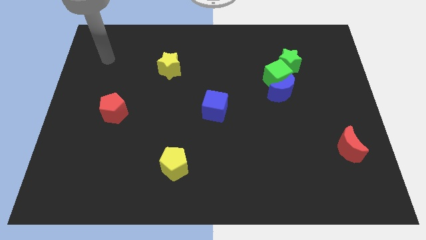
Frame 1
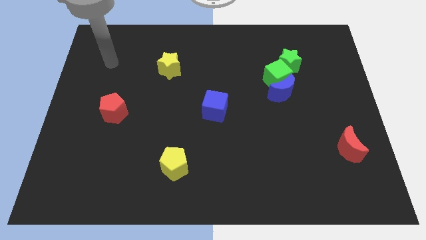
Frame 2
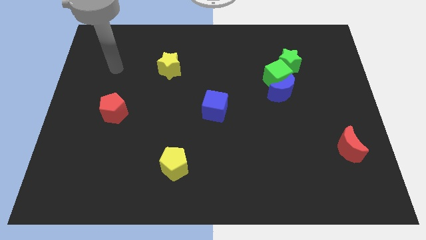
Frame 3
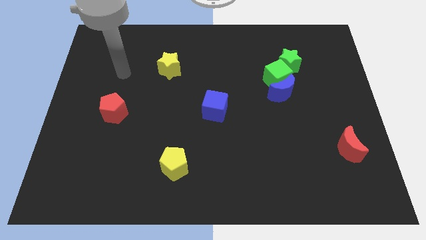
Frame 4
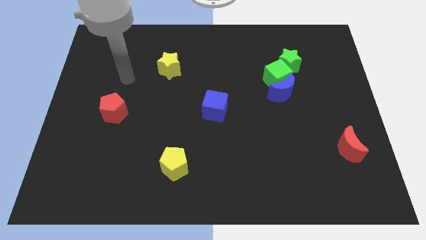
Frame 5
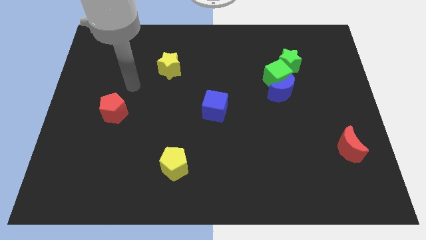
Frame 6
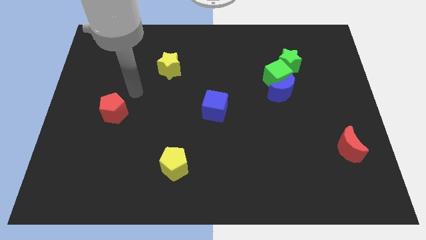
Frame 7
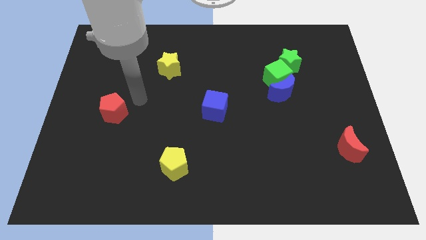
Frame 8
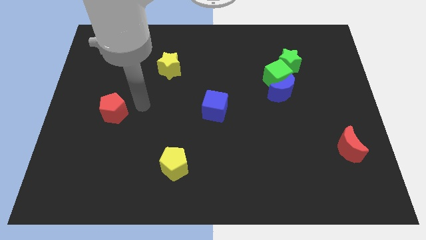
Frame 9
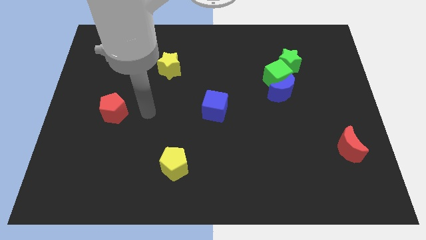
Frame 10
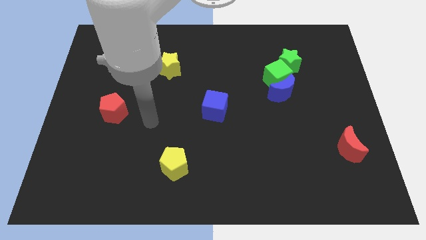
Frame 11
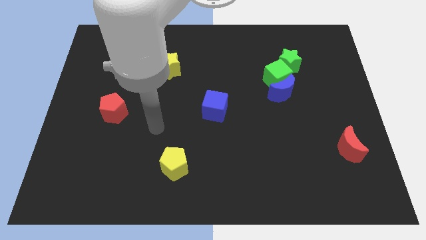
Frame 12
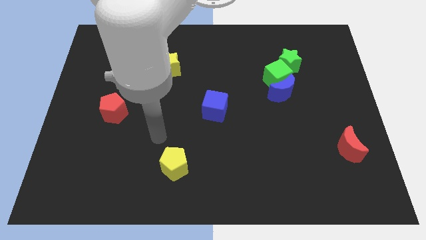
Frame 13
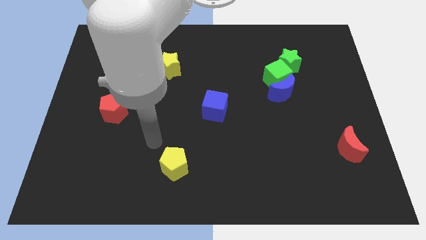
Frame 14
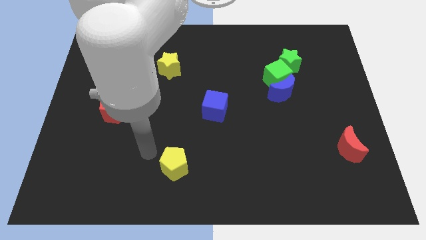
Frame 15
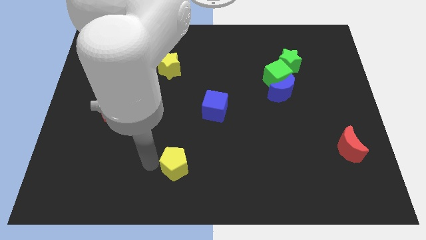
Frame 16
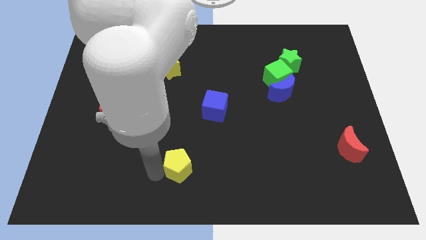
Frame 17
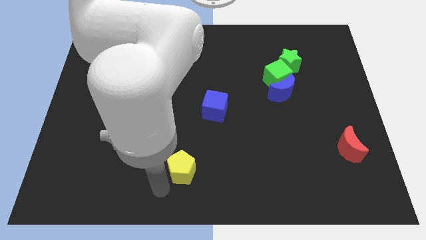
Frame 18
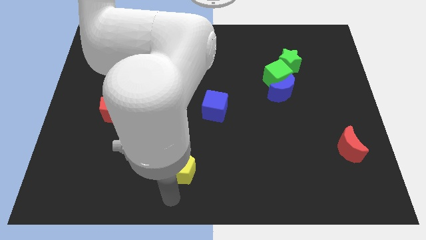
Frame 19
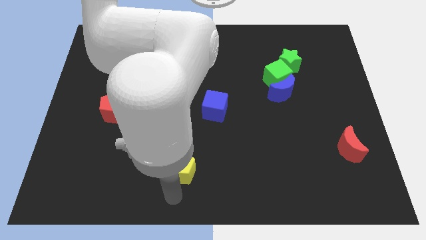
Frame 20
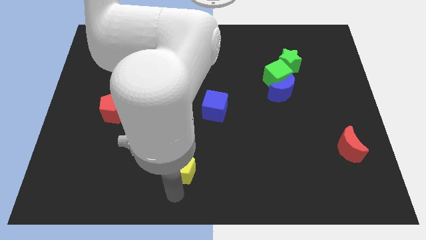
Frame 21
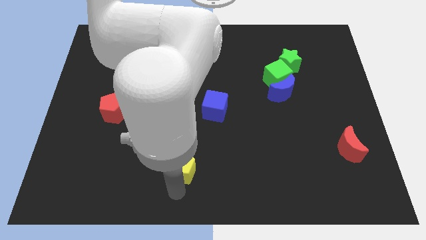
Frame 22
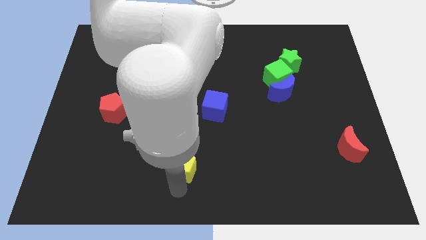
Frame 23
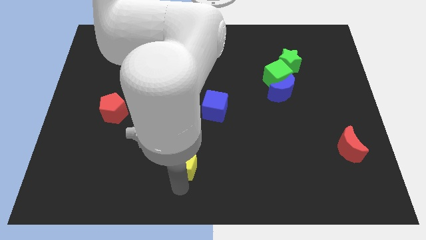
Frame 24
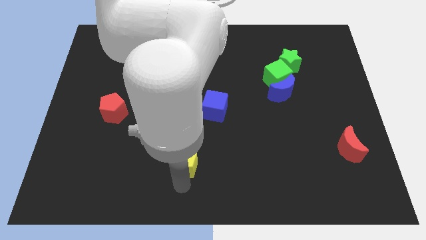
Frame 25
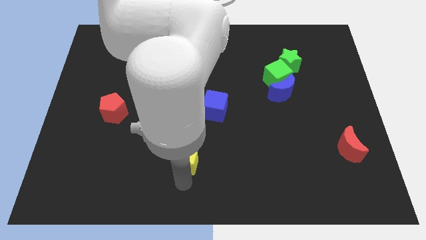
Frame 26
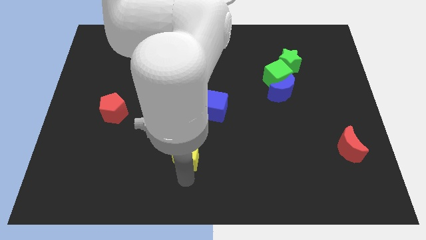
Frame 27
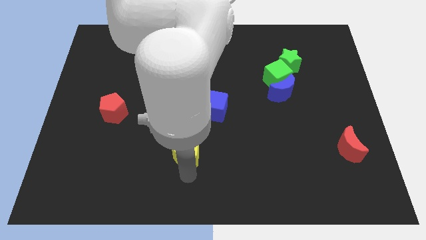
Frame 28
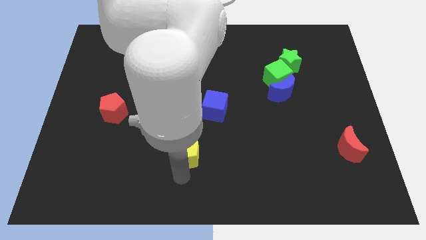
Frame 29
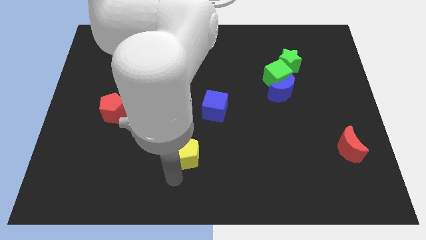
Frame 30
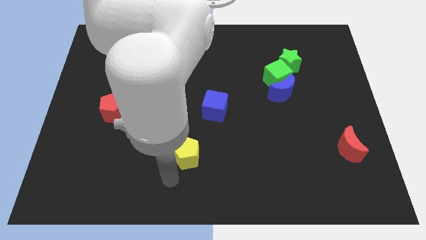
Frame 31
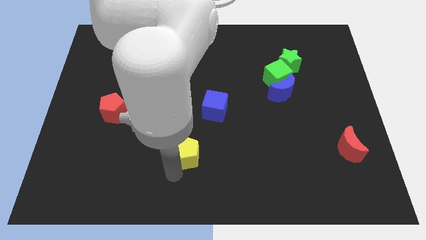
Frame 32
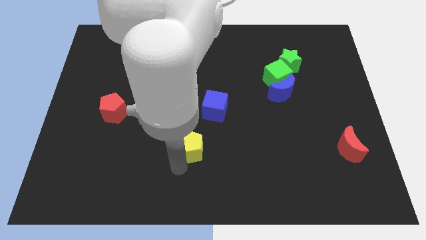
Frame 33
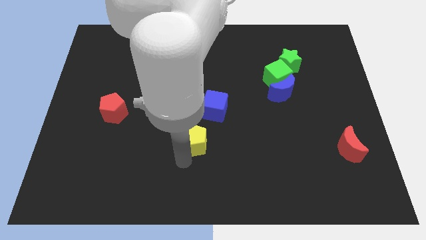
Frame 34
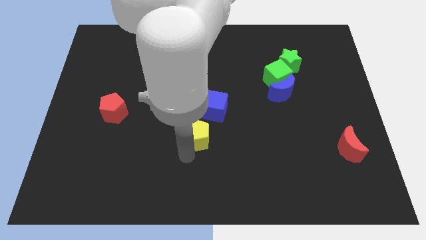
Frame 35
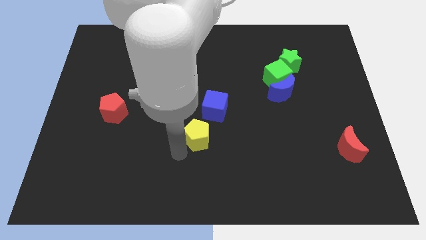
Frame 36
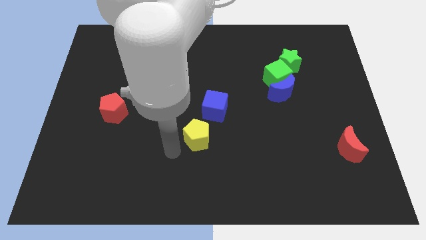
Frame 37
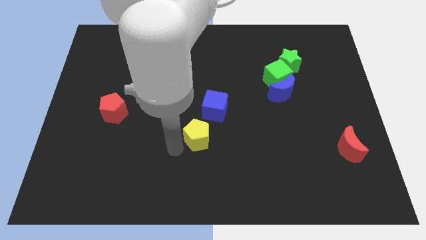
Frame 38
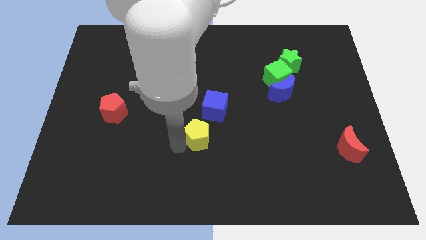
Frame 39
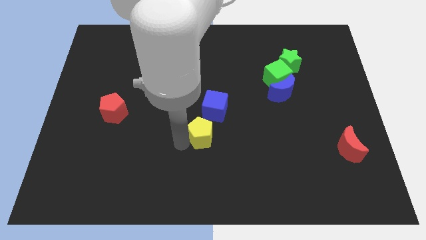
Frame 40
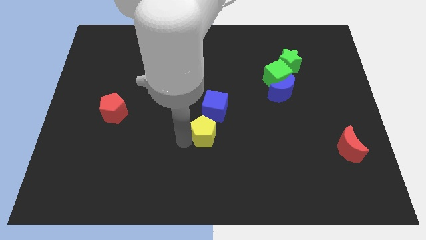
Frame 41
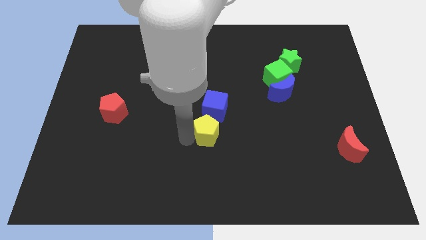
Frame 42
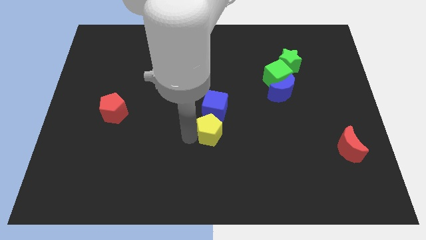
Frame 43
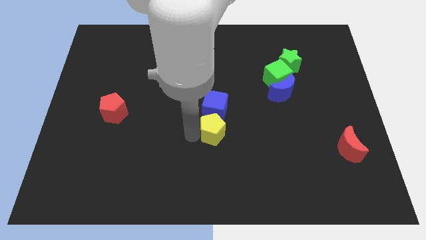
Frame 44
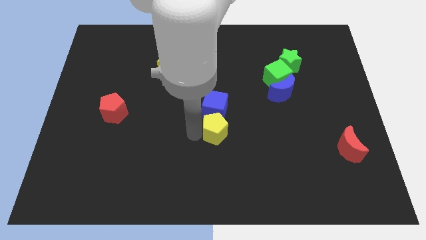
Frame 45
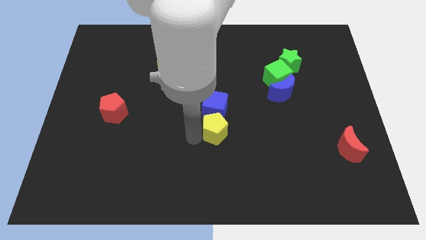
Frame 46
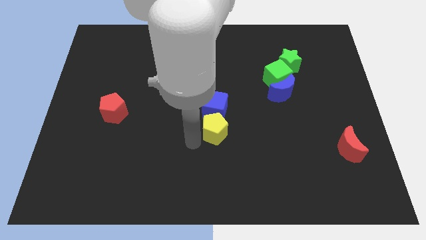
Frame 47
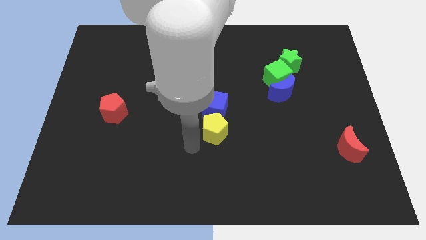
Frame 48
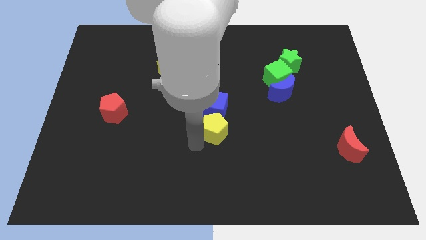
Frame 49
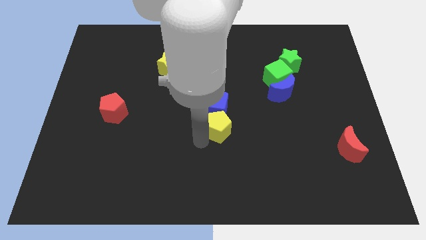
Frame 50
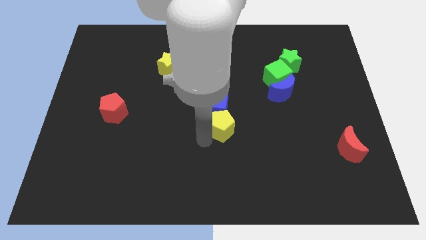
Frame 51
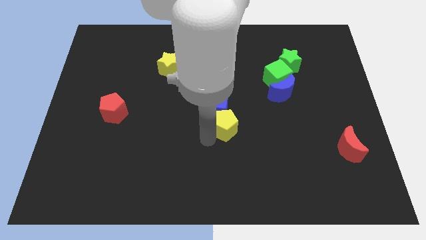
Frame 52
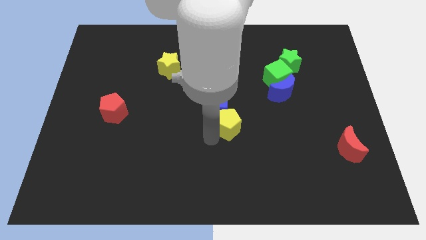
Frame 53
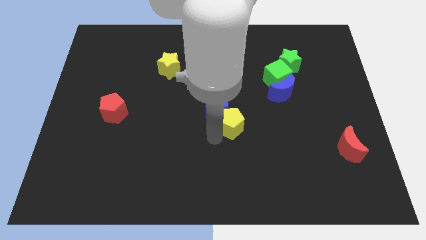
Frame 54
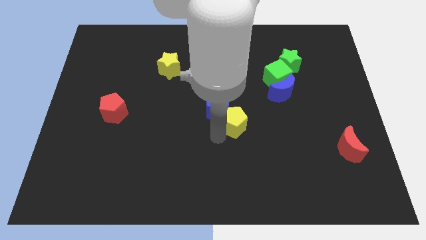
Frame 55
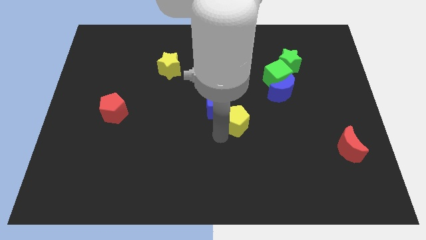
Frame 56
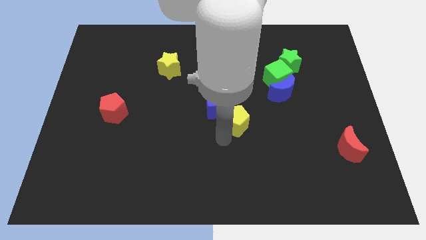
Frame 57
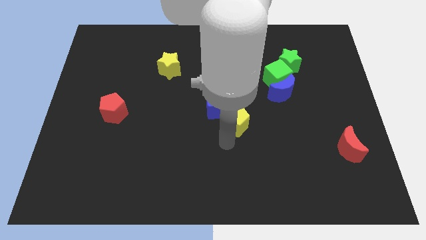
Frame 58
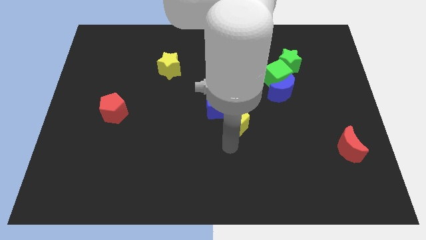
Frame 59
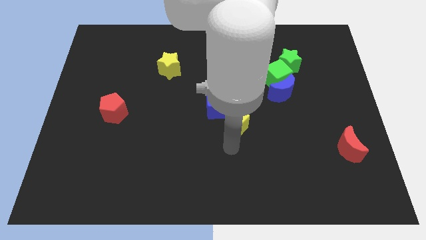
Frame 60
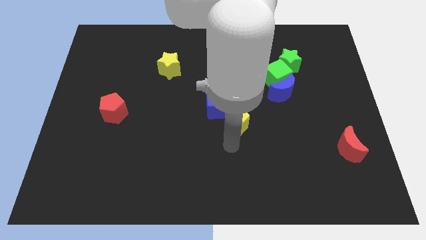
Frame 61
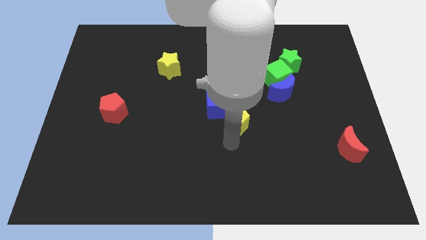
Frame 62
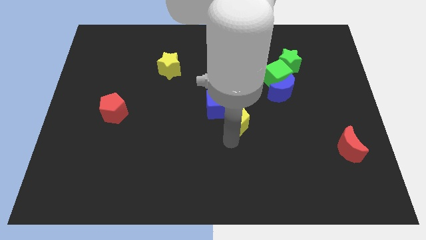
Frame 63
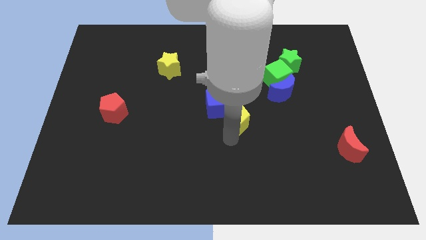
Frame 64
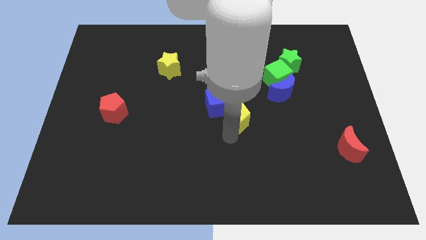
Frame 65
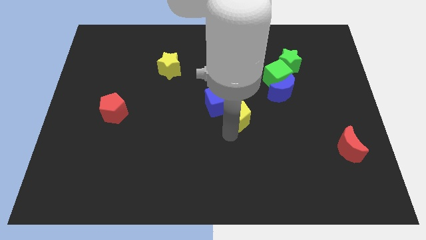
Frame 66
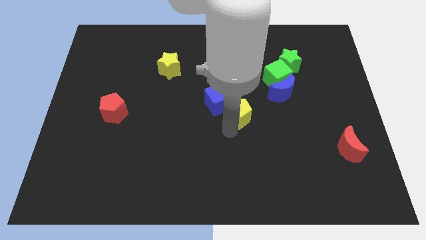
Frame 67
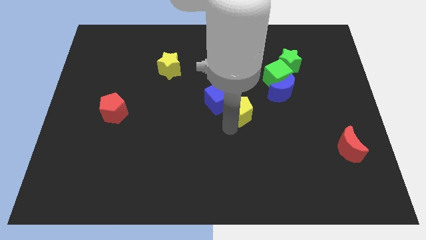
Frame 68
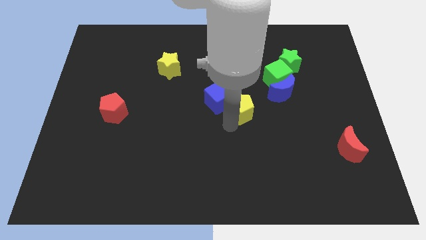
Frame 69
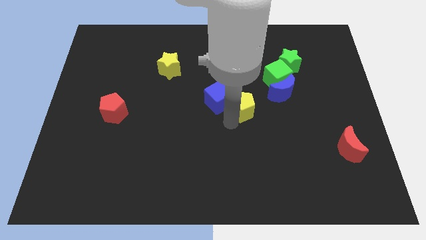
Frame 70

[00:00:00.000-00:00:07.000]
slide the yellow pentagon left of the blue moon
